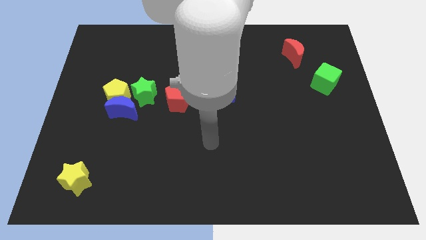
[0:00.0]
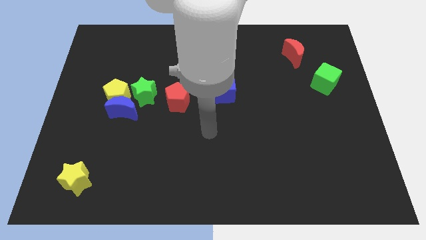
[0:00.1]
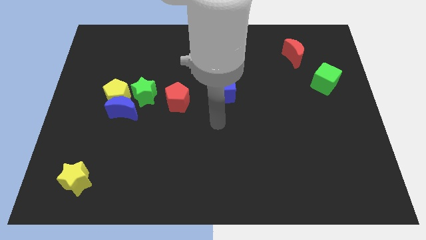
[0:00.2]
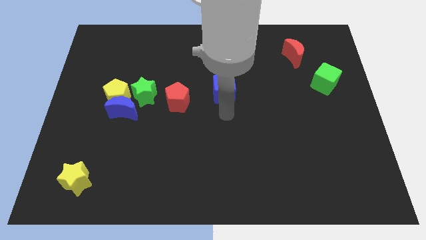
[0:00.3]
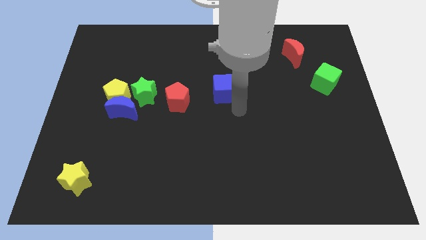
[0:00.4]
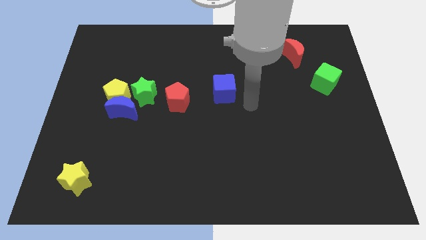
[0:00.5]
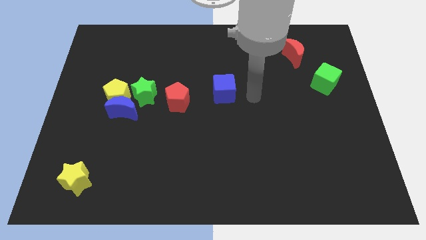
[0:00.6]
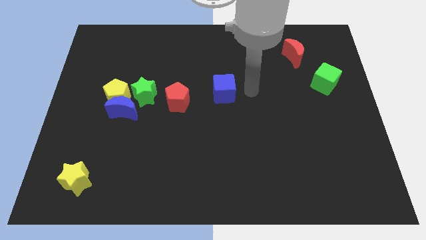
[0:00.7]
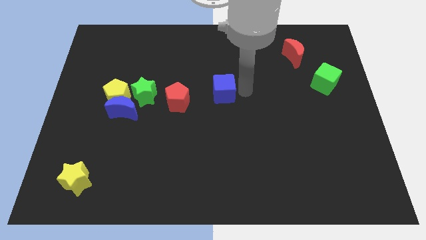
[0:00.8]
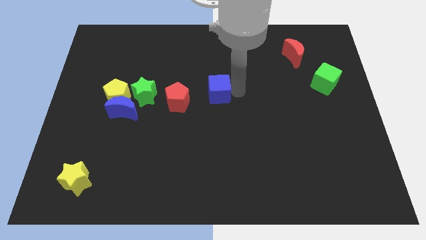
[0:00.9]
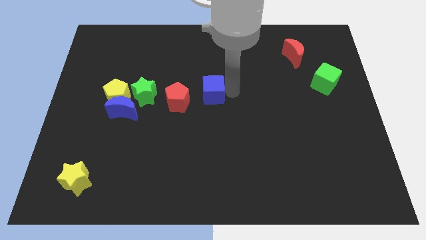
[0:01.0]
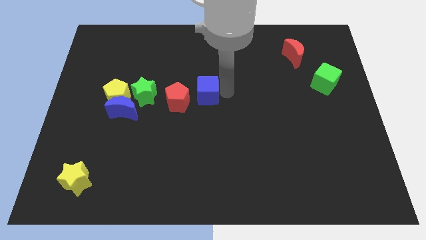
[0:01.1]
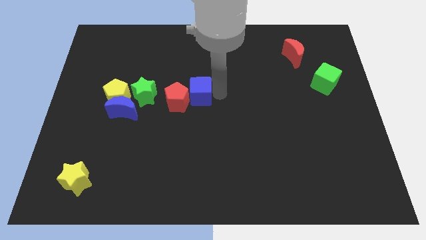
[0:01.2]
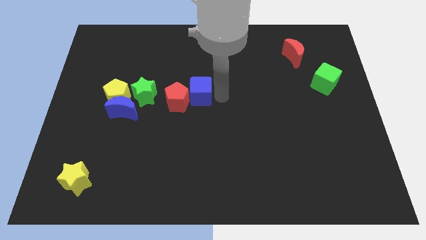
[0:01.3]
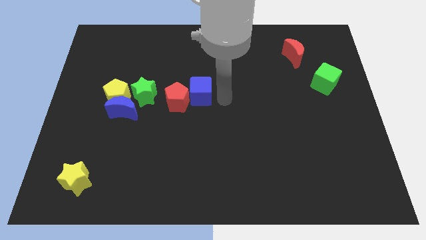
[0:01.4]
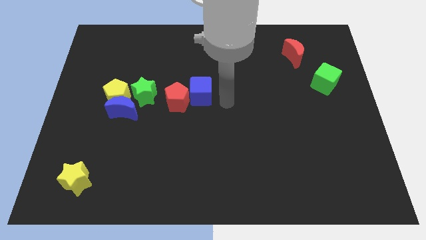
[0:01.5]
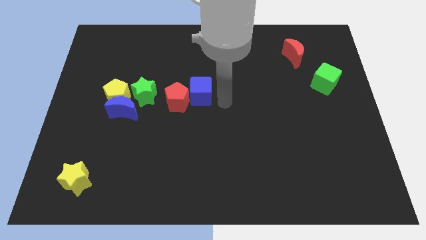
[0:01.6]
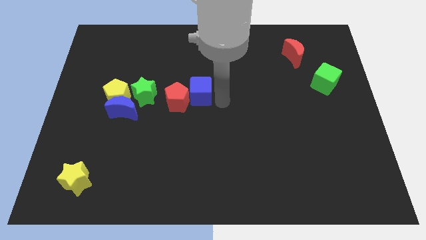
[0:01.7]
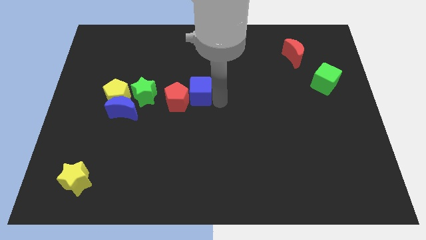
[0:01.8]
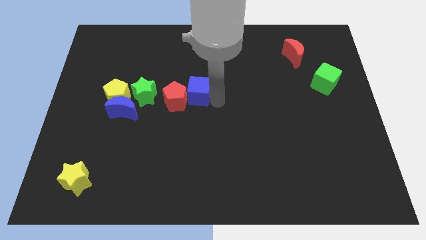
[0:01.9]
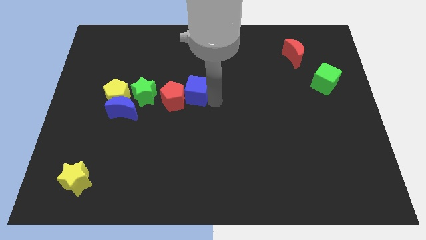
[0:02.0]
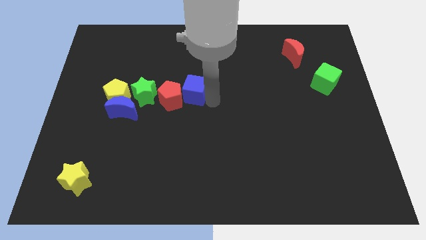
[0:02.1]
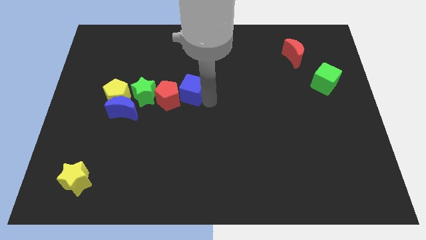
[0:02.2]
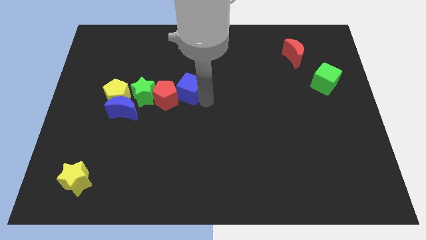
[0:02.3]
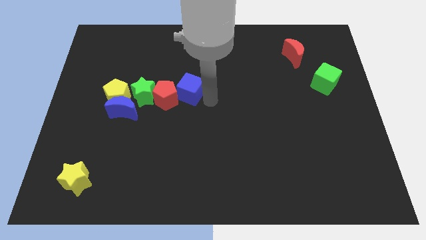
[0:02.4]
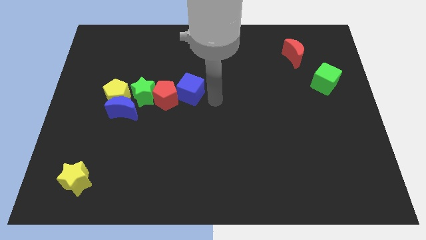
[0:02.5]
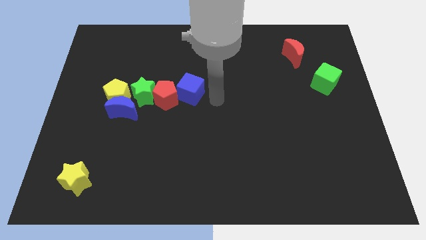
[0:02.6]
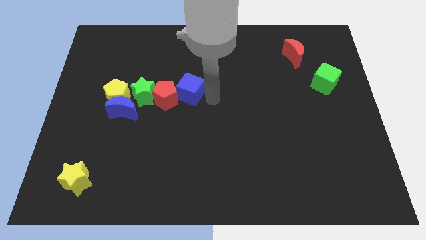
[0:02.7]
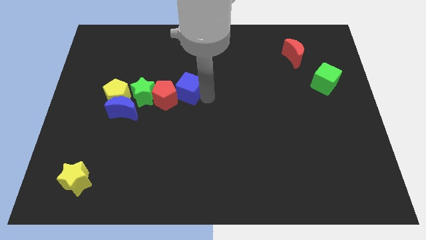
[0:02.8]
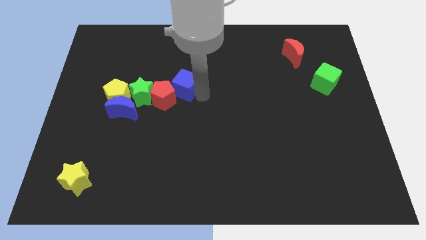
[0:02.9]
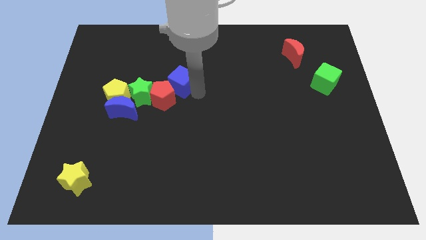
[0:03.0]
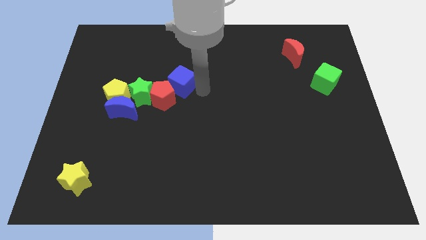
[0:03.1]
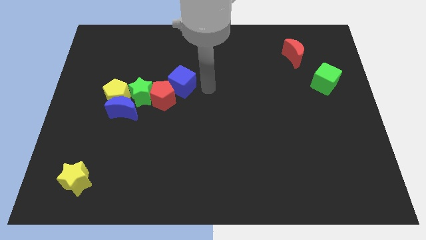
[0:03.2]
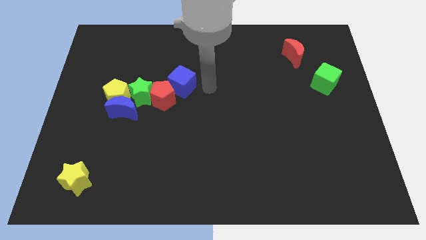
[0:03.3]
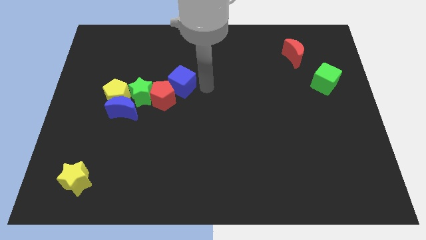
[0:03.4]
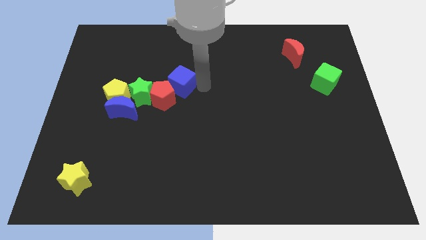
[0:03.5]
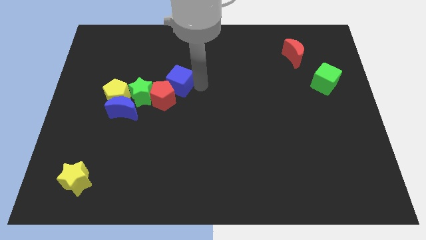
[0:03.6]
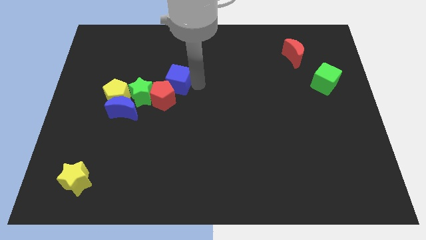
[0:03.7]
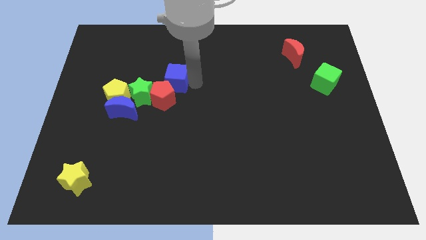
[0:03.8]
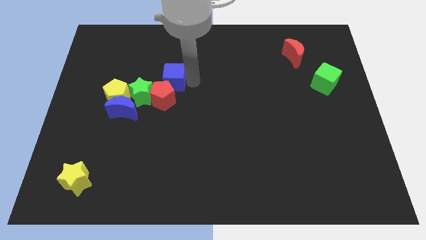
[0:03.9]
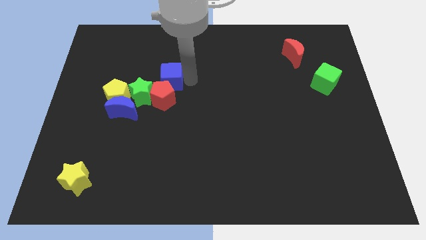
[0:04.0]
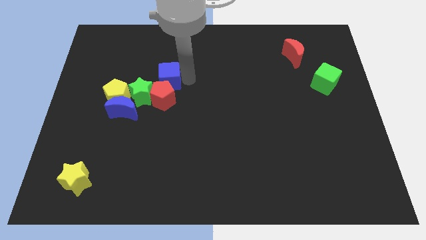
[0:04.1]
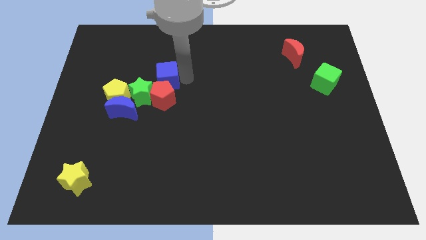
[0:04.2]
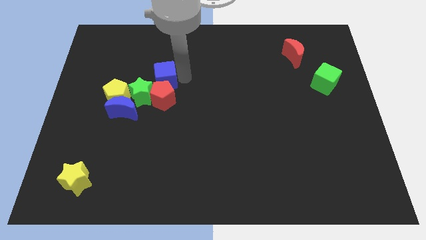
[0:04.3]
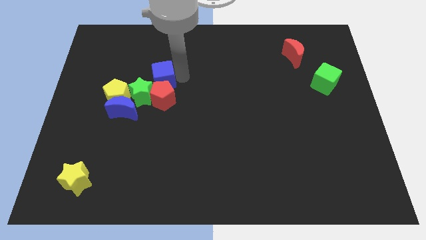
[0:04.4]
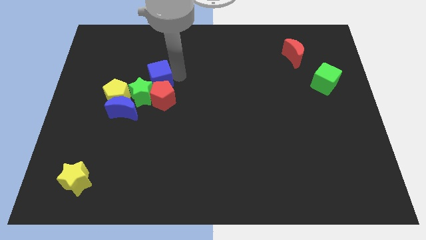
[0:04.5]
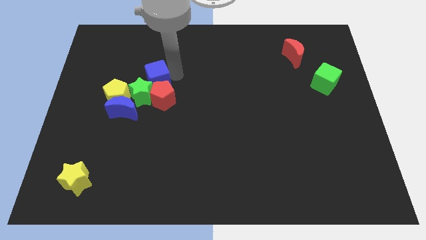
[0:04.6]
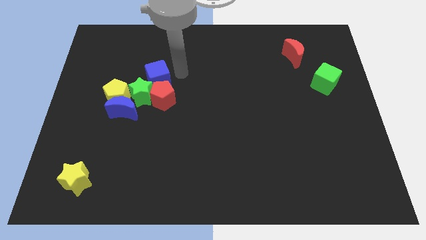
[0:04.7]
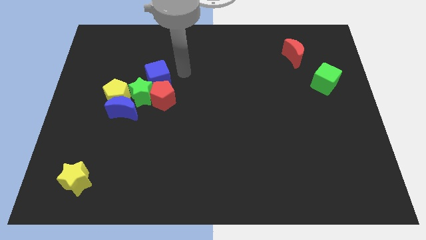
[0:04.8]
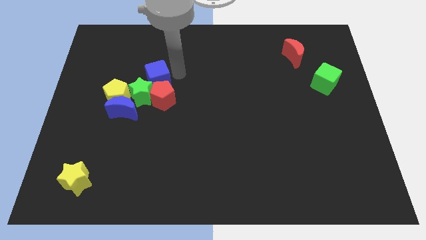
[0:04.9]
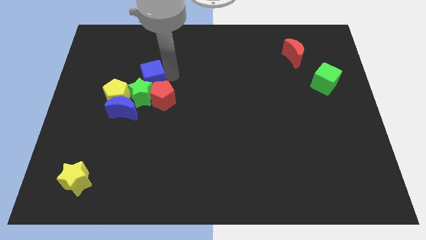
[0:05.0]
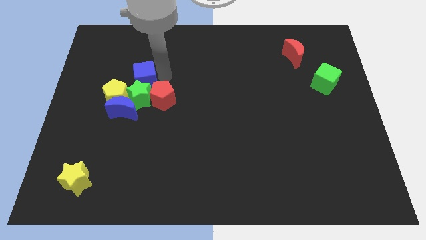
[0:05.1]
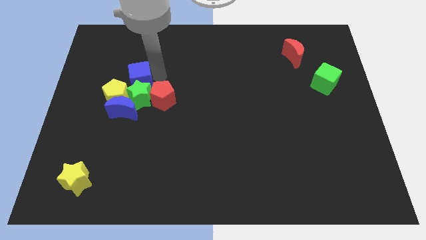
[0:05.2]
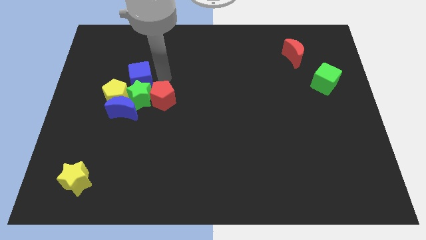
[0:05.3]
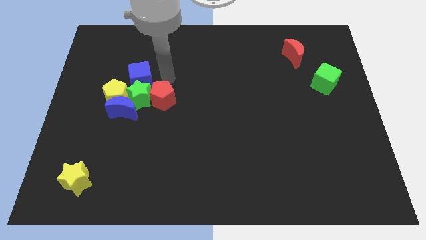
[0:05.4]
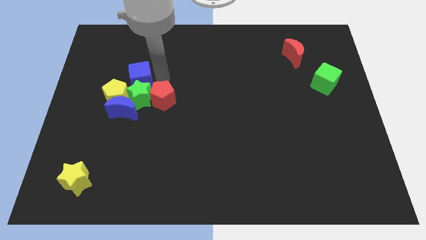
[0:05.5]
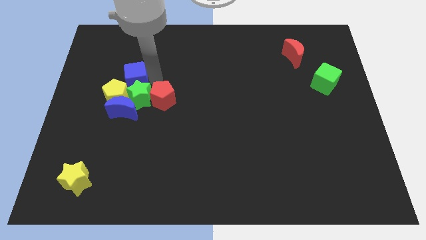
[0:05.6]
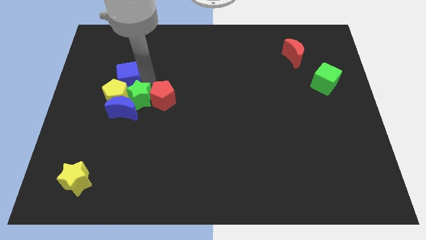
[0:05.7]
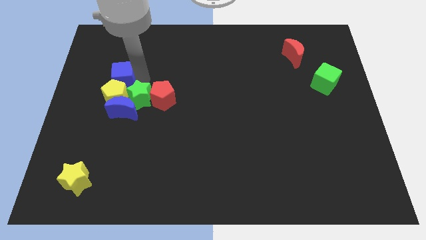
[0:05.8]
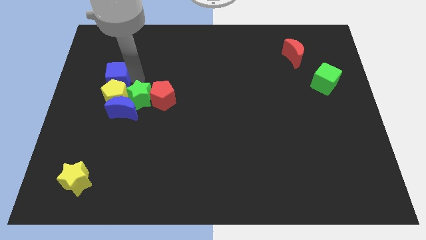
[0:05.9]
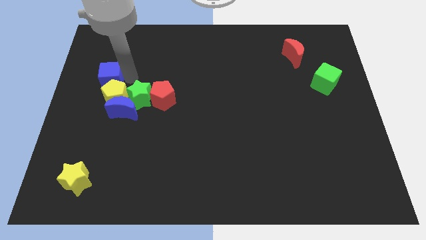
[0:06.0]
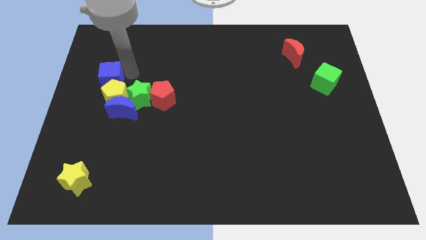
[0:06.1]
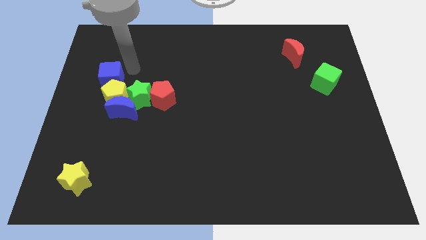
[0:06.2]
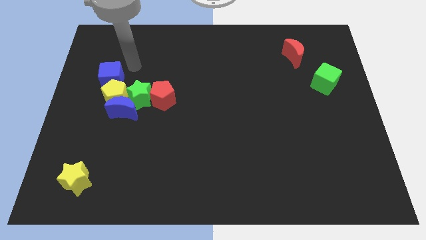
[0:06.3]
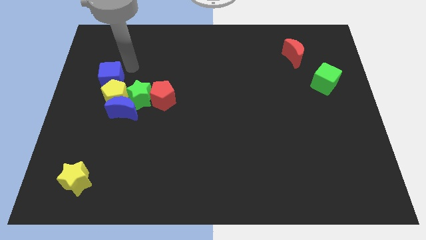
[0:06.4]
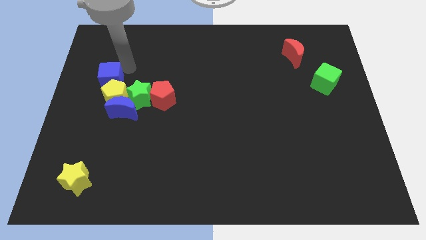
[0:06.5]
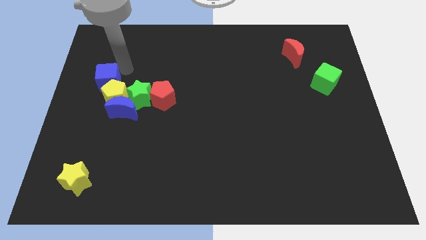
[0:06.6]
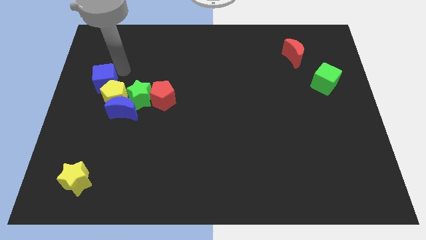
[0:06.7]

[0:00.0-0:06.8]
slide the blue cube to the center left
